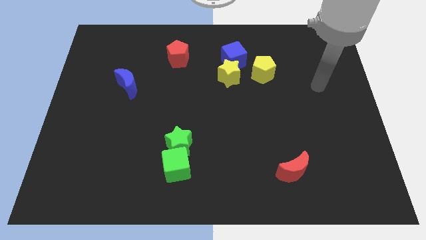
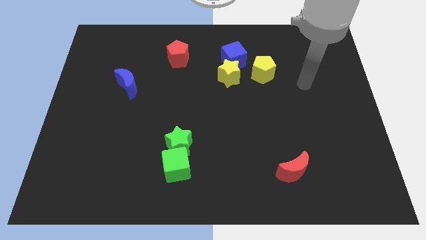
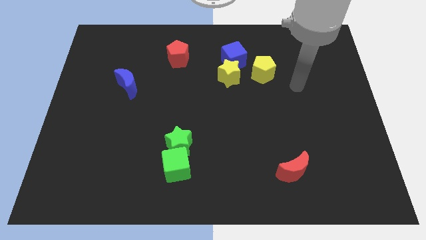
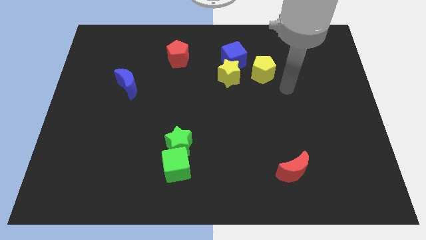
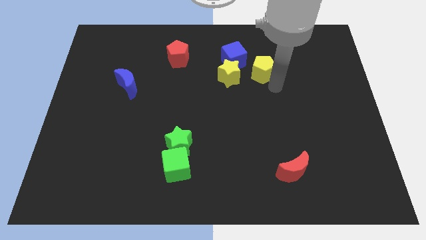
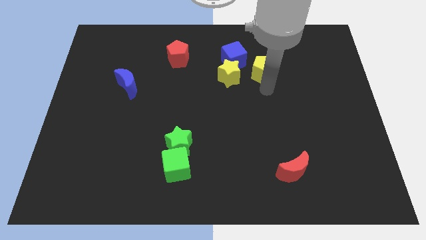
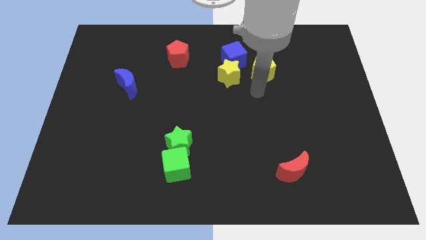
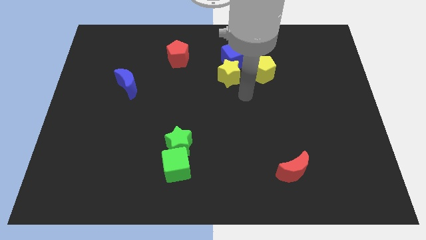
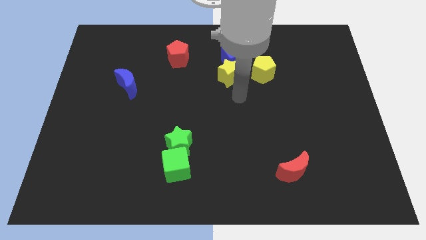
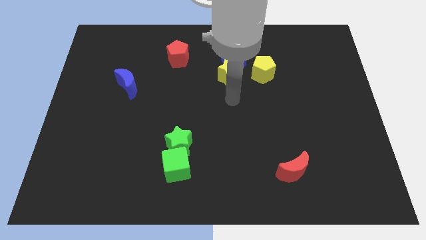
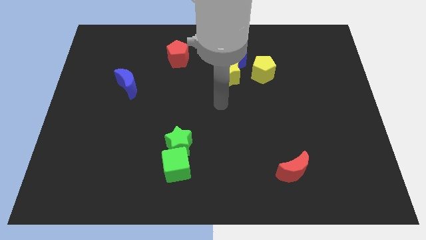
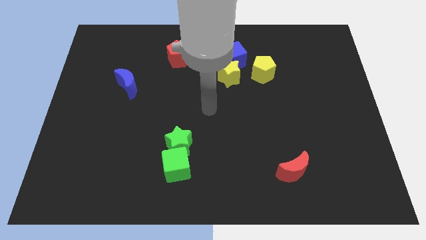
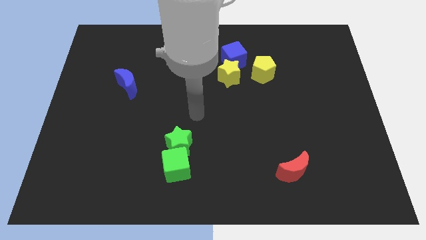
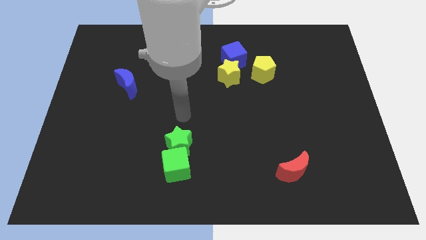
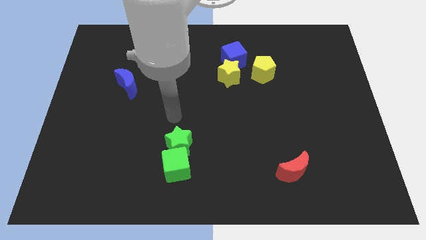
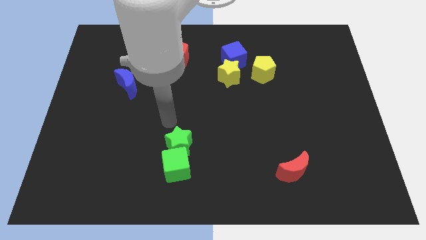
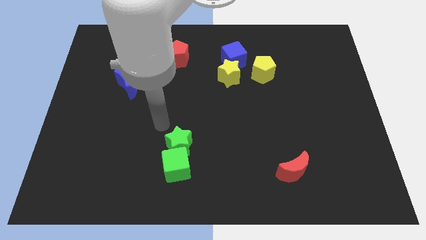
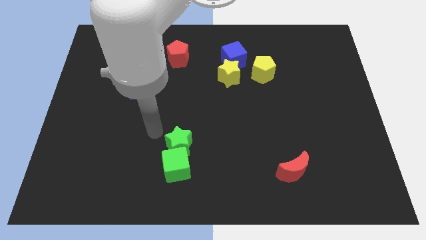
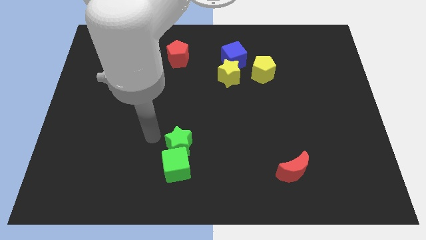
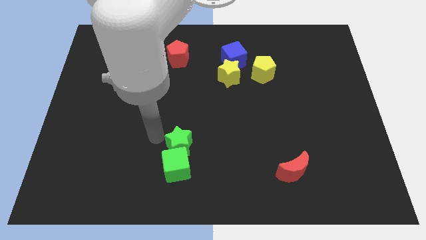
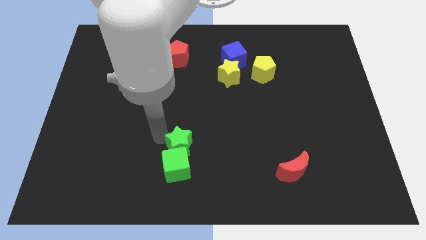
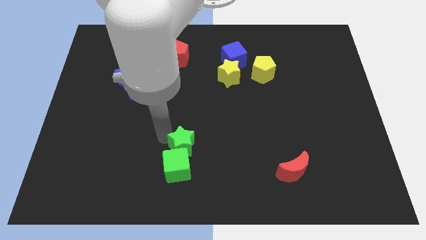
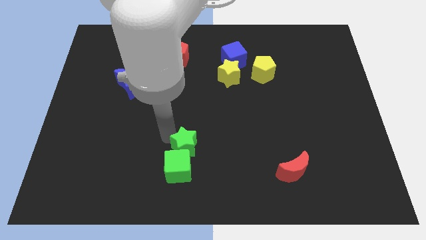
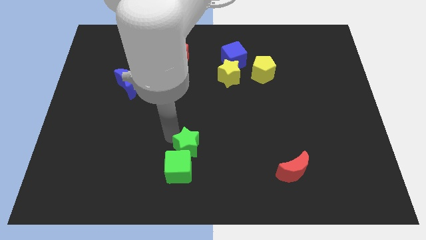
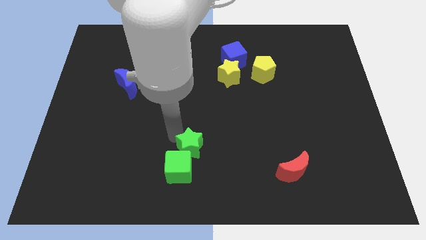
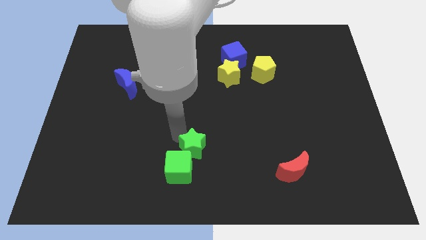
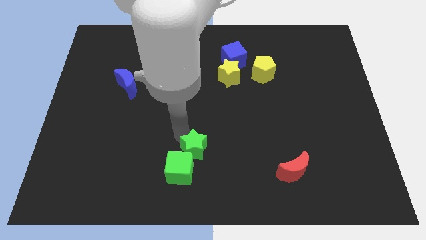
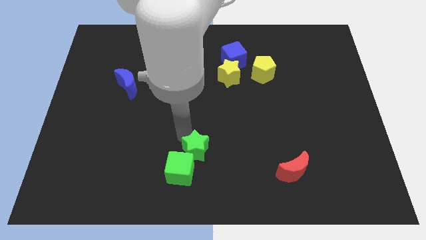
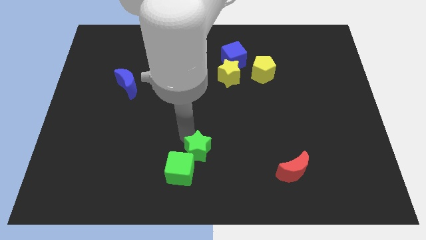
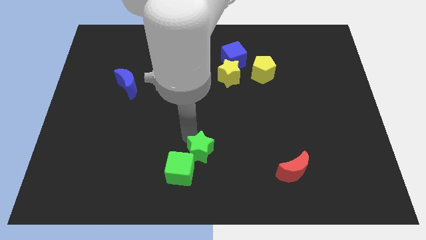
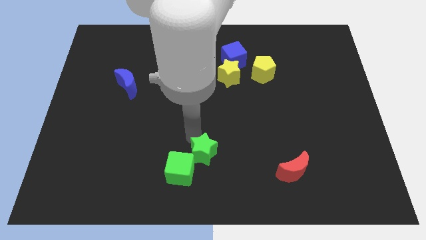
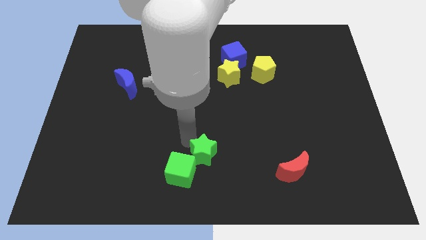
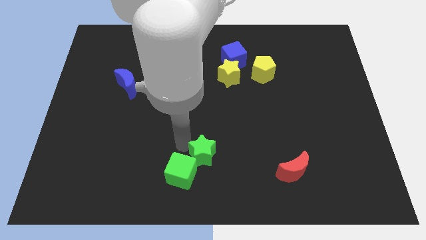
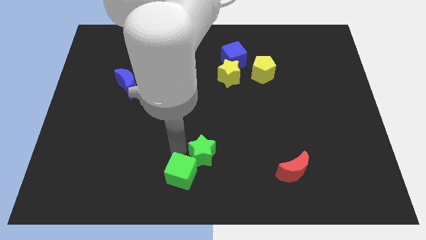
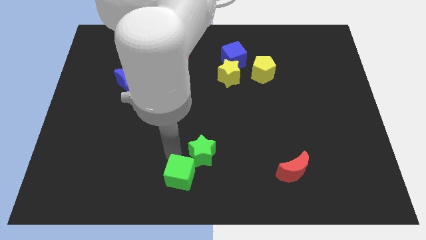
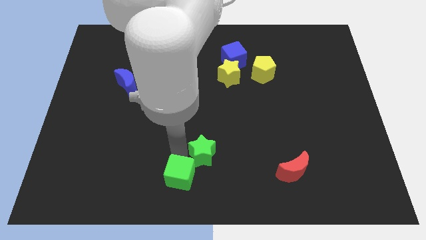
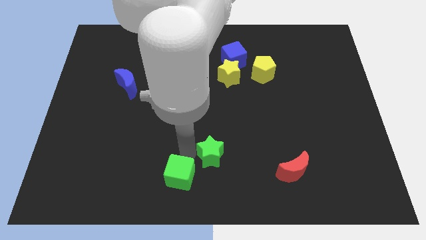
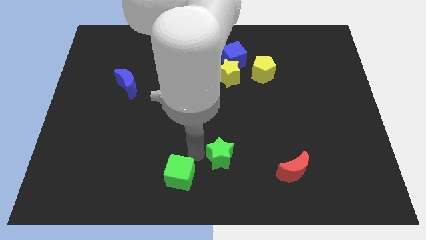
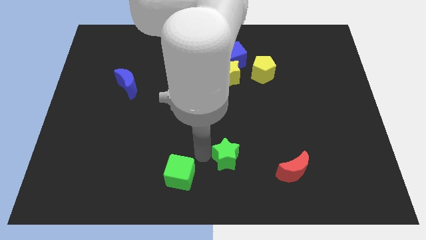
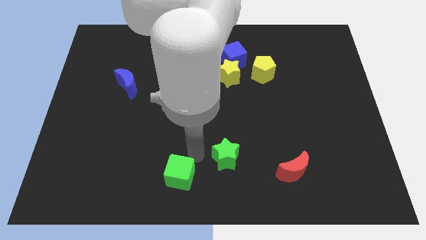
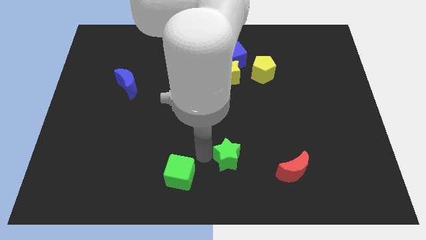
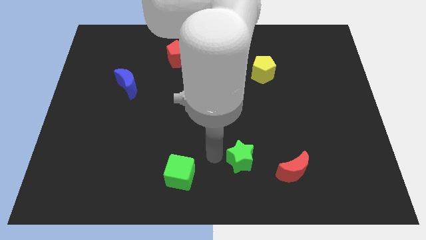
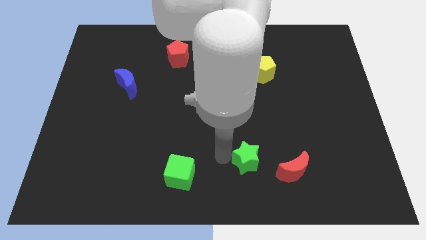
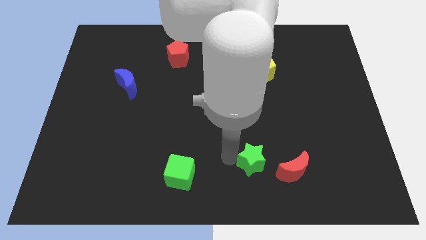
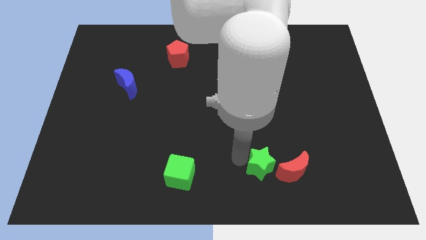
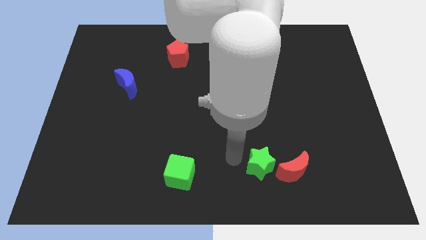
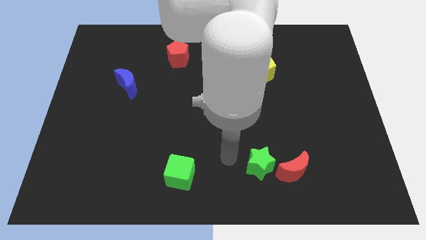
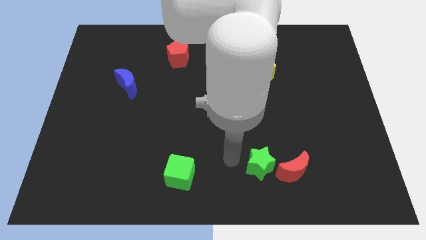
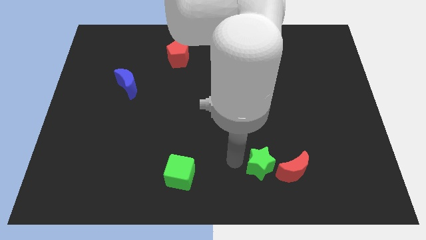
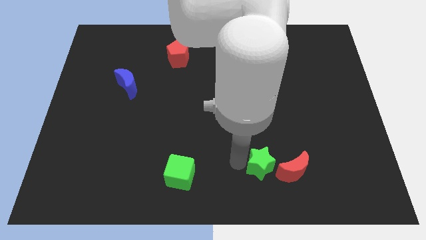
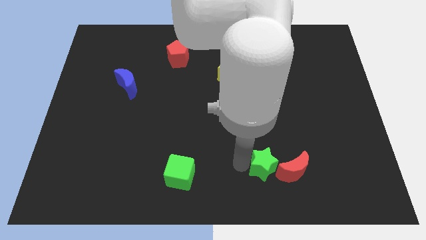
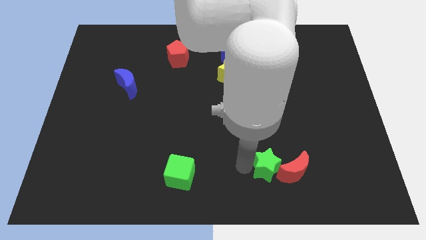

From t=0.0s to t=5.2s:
push the green star towards the red moon

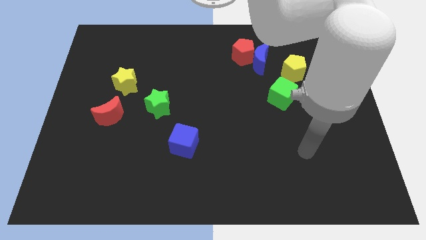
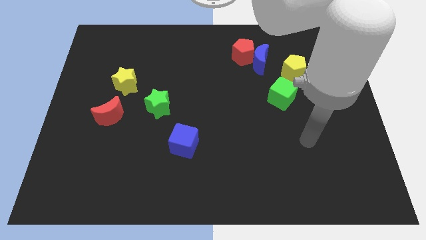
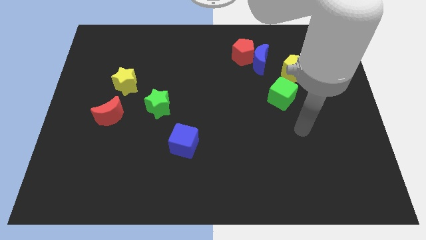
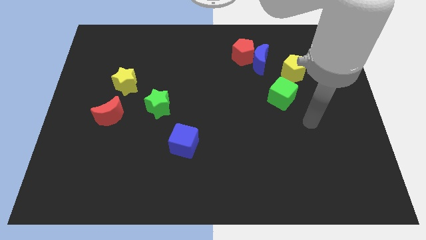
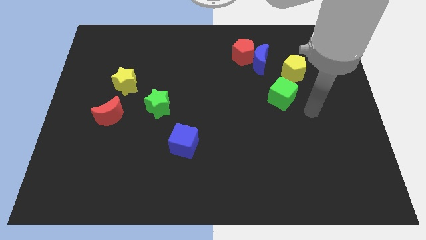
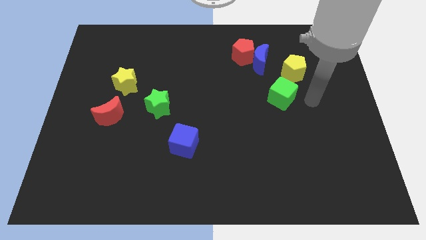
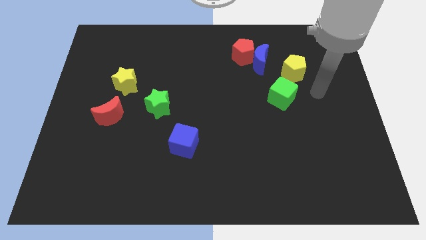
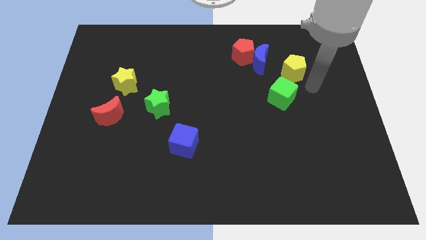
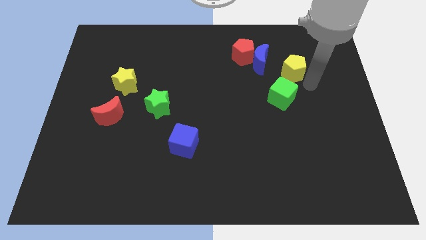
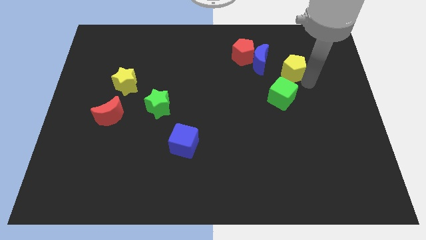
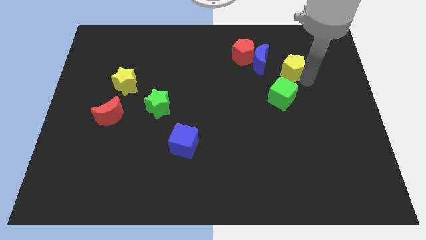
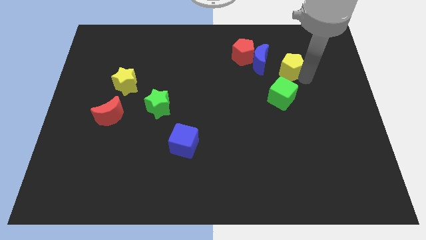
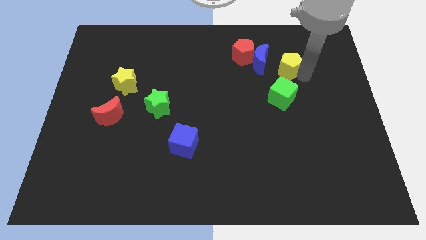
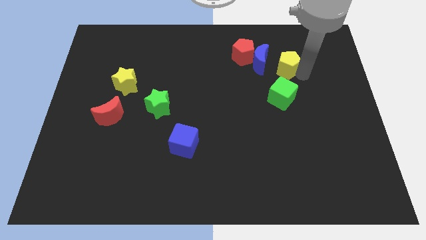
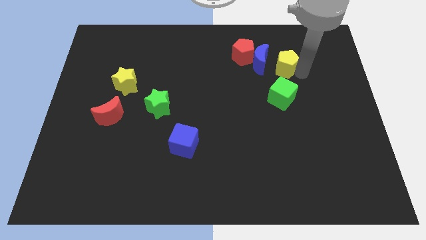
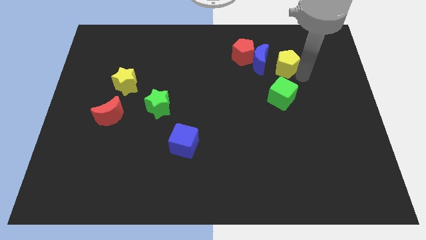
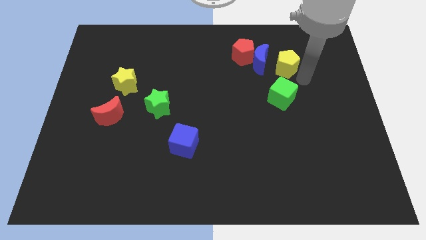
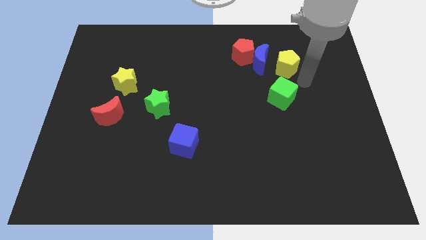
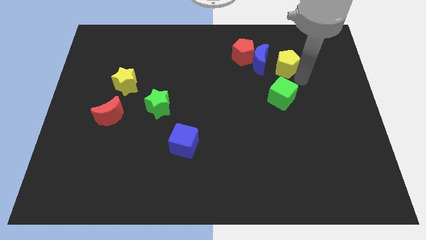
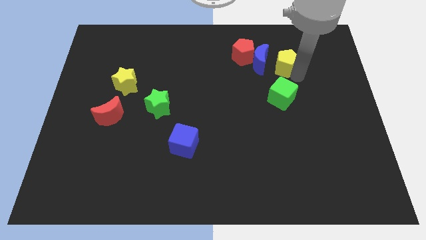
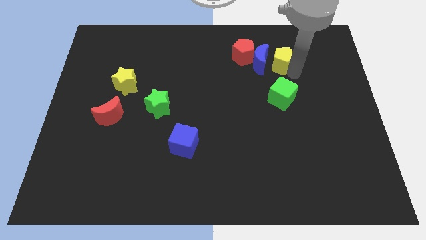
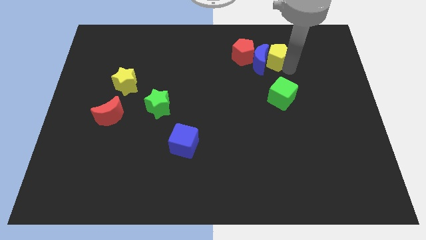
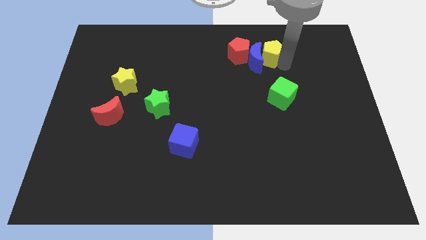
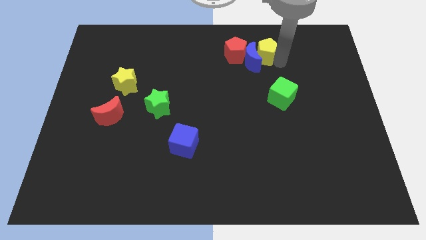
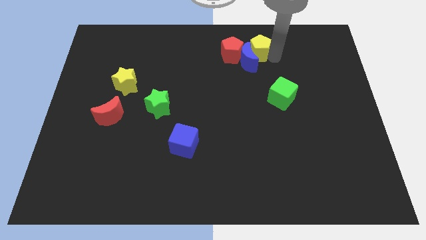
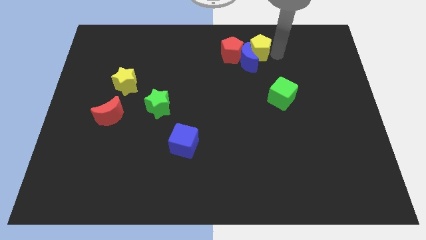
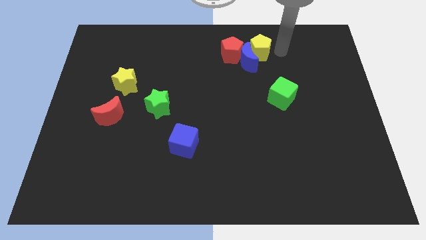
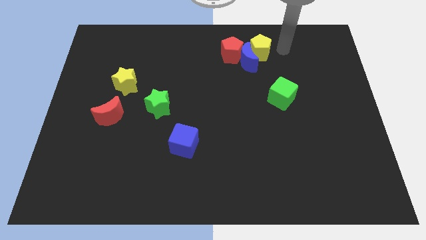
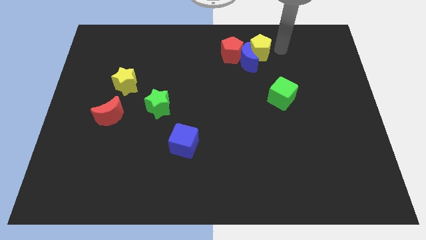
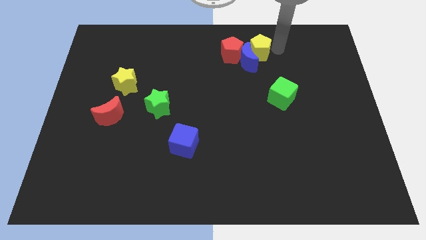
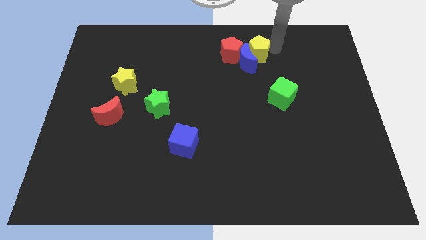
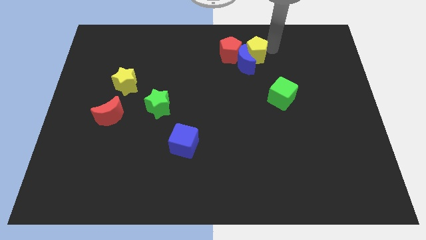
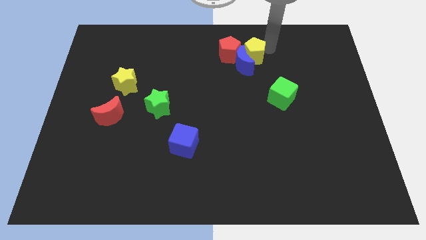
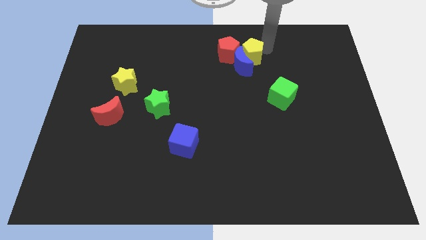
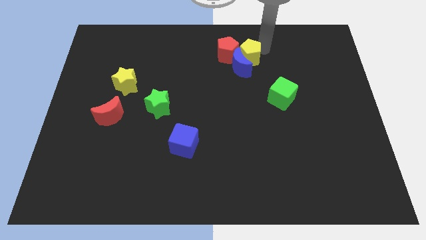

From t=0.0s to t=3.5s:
put the yellow pentagon next to the red pentagon
